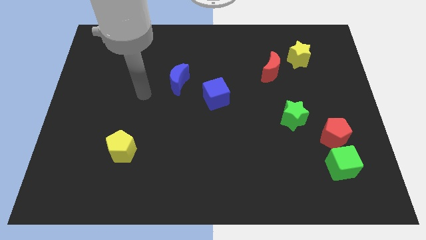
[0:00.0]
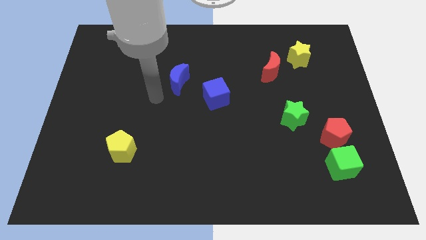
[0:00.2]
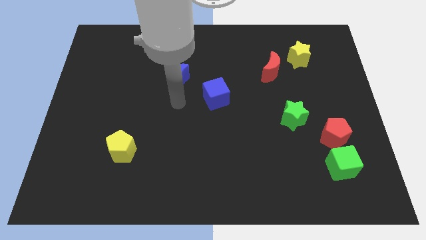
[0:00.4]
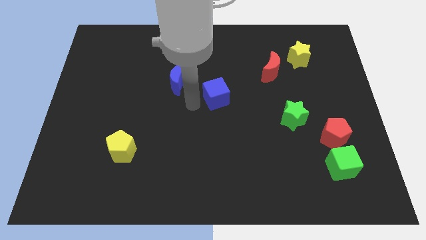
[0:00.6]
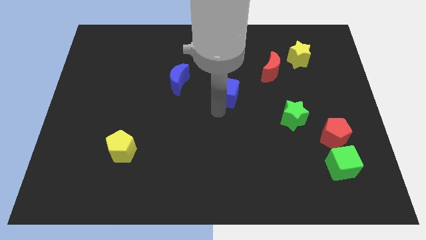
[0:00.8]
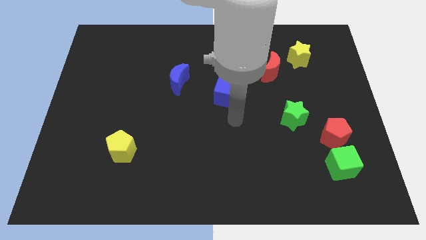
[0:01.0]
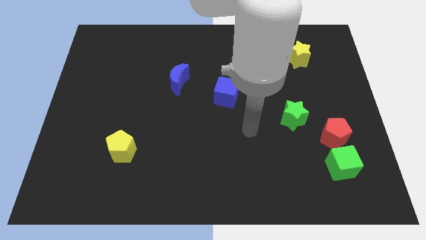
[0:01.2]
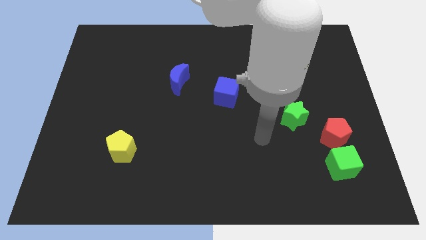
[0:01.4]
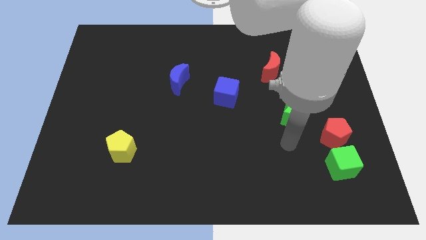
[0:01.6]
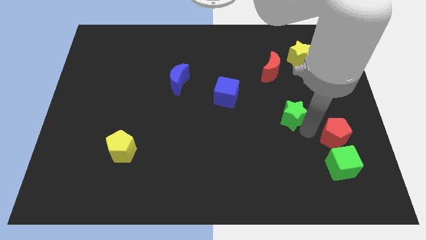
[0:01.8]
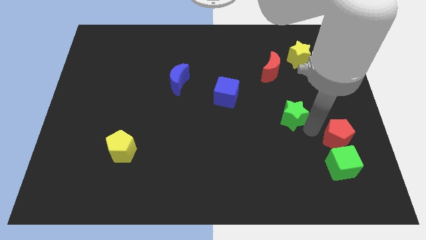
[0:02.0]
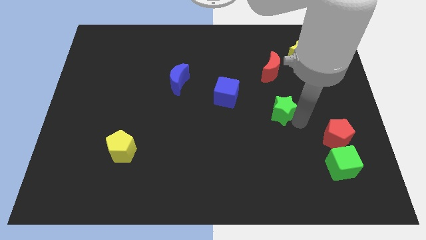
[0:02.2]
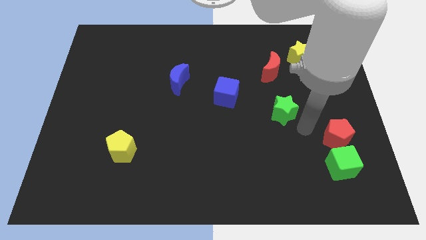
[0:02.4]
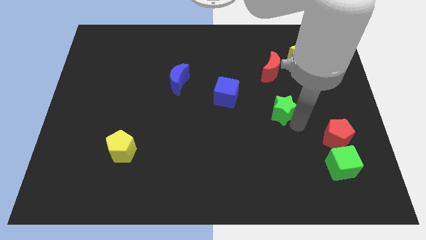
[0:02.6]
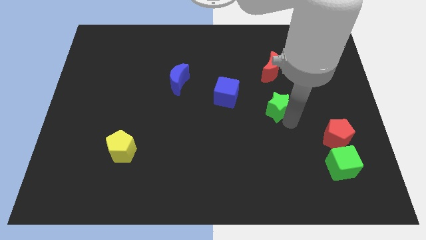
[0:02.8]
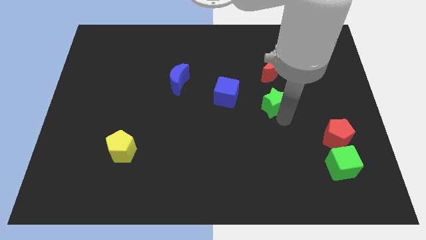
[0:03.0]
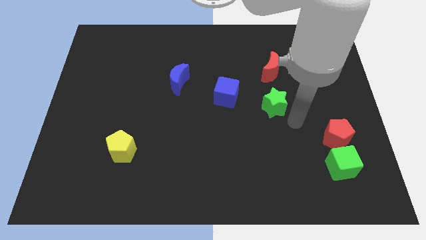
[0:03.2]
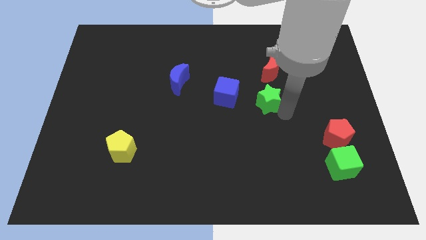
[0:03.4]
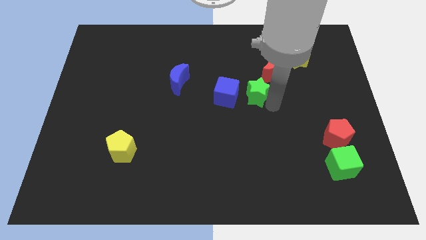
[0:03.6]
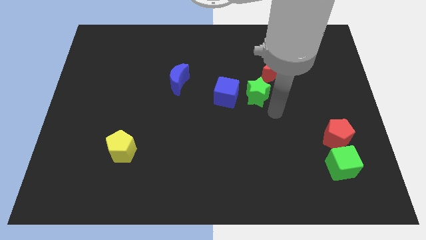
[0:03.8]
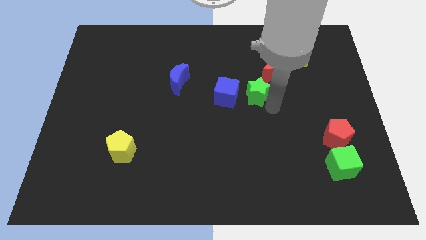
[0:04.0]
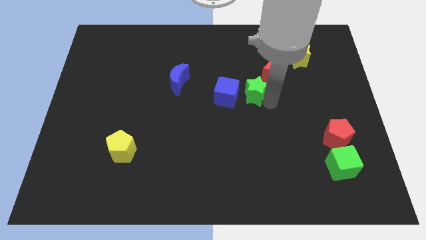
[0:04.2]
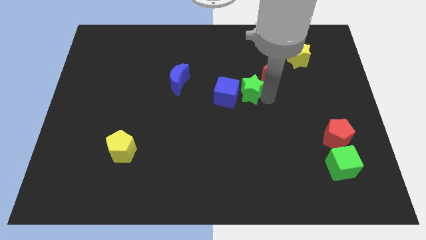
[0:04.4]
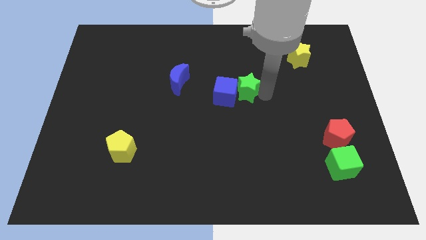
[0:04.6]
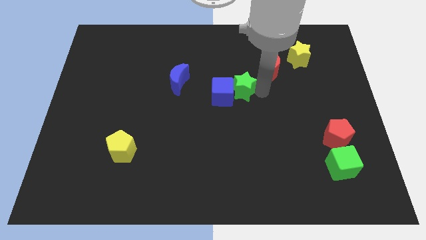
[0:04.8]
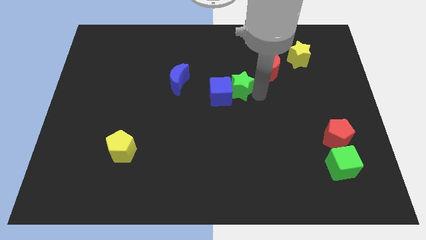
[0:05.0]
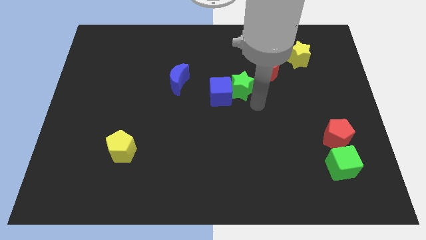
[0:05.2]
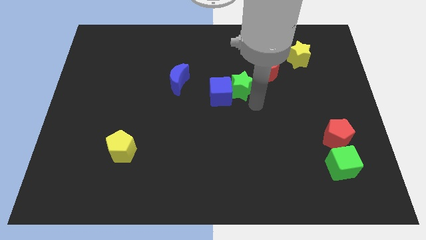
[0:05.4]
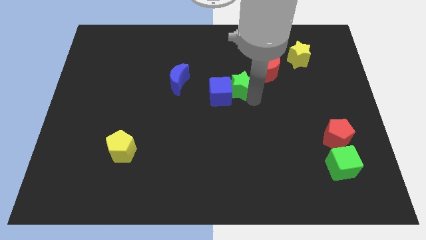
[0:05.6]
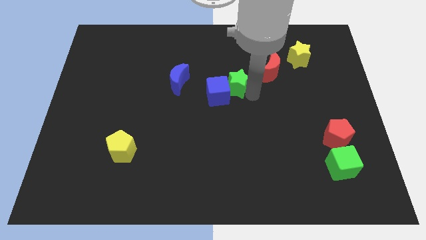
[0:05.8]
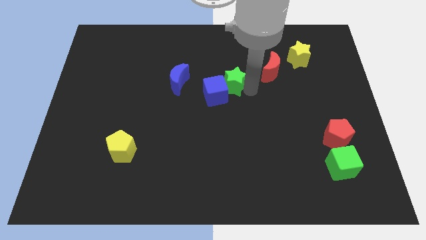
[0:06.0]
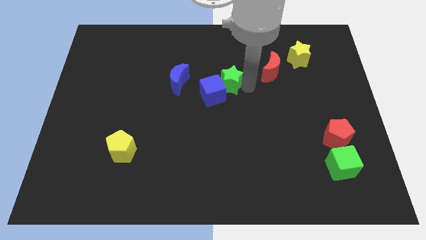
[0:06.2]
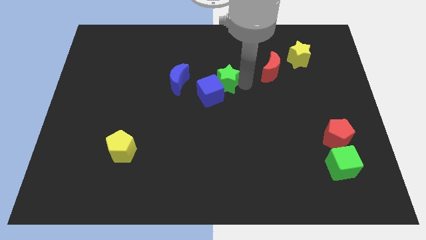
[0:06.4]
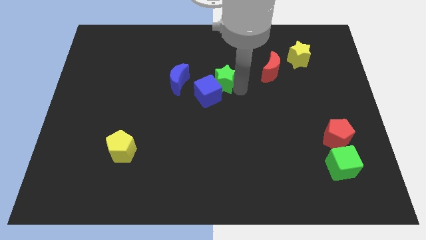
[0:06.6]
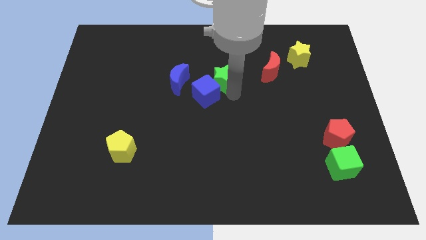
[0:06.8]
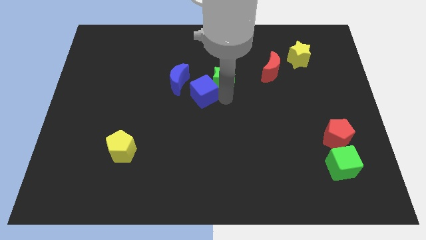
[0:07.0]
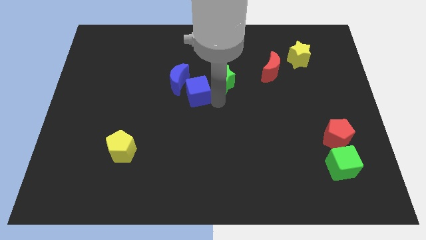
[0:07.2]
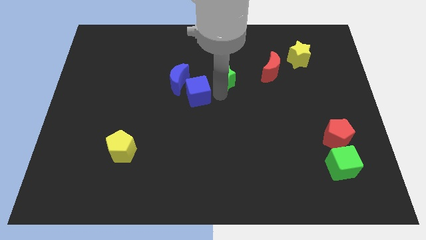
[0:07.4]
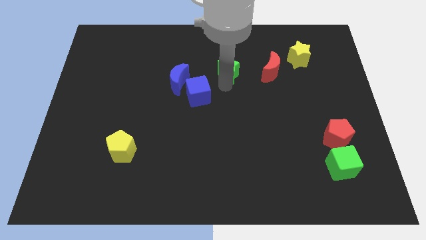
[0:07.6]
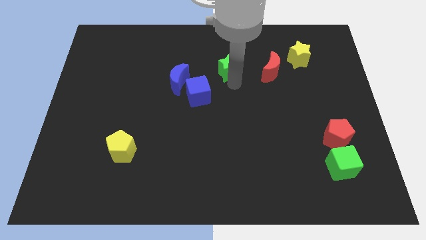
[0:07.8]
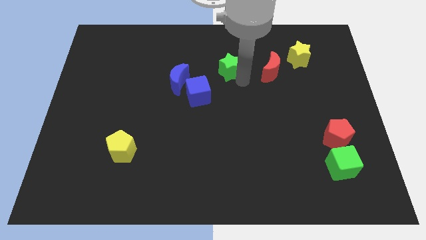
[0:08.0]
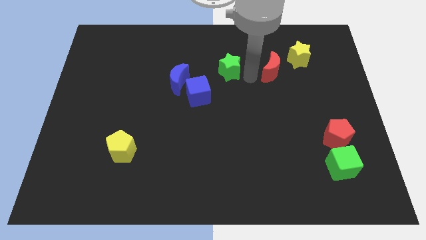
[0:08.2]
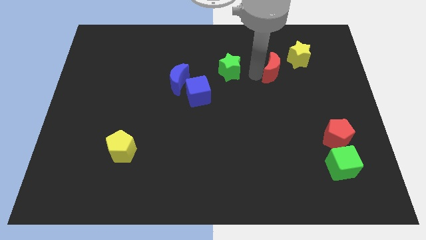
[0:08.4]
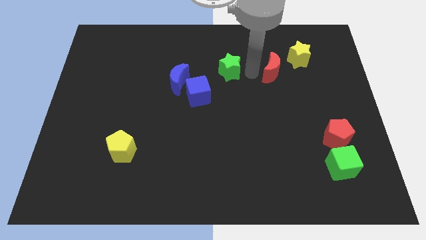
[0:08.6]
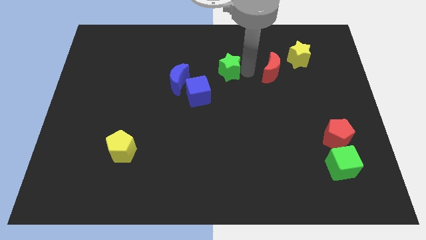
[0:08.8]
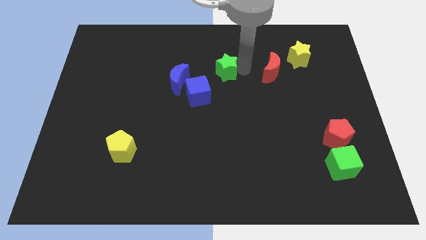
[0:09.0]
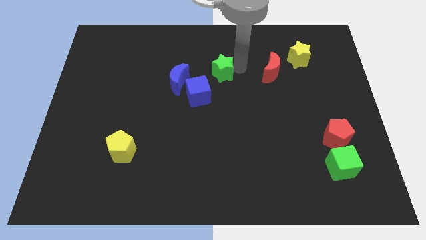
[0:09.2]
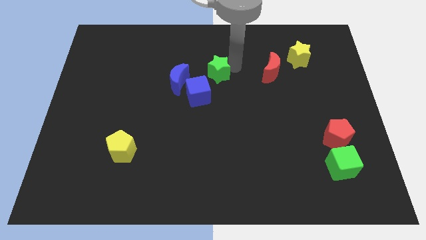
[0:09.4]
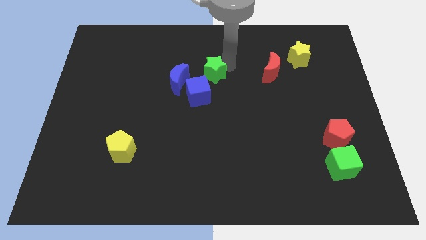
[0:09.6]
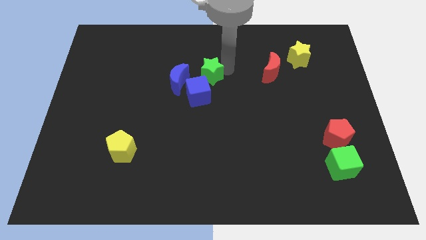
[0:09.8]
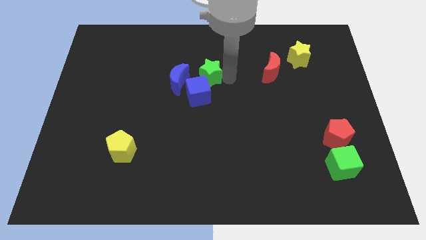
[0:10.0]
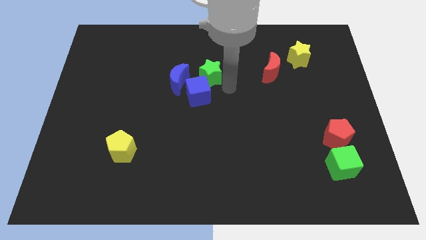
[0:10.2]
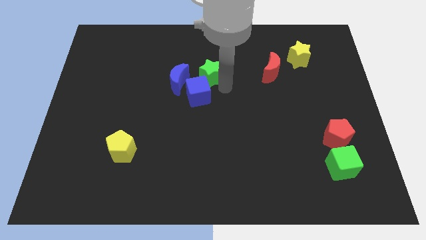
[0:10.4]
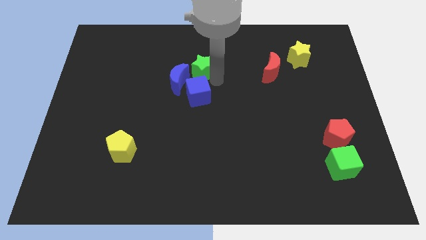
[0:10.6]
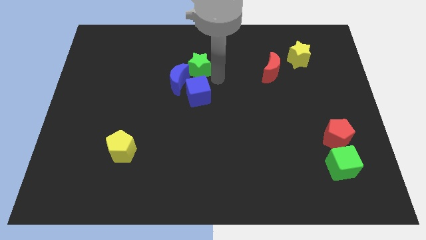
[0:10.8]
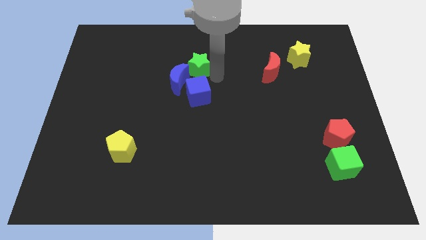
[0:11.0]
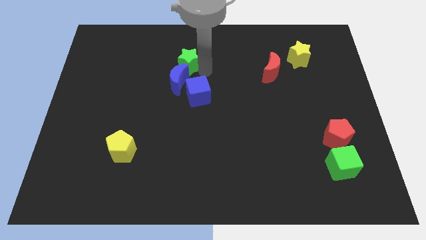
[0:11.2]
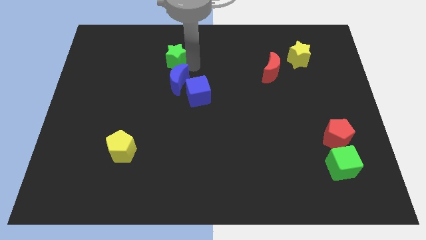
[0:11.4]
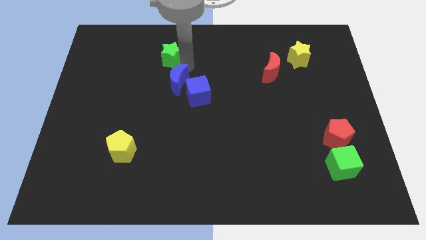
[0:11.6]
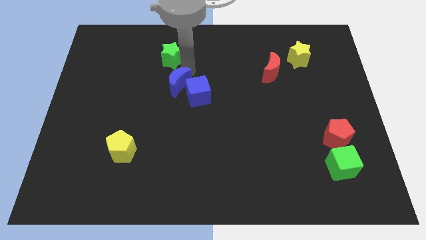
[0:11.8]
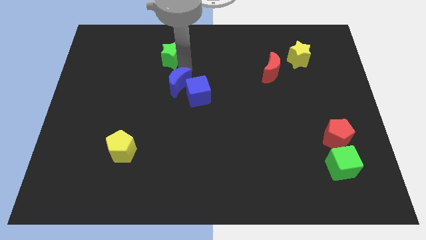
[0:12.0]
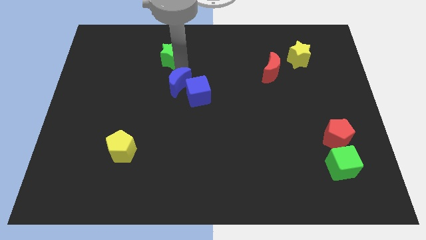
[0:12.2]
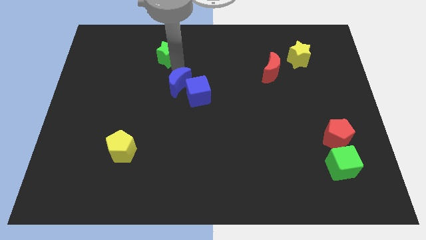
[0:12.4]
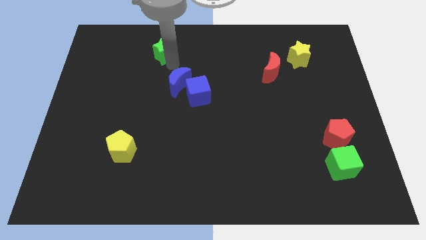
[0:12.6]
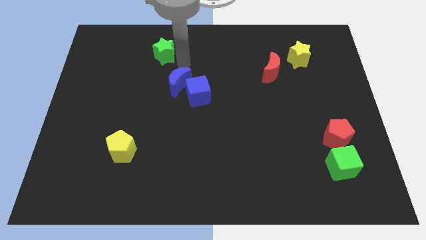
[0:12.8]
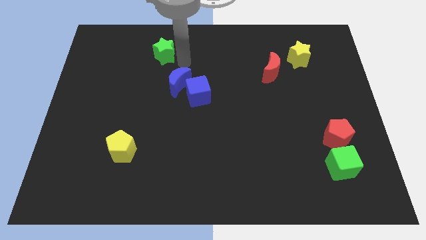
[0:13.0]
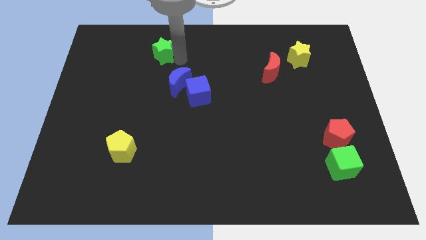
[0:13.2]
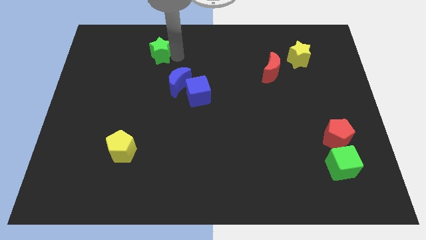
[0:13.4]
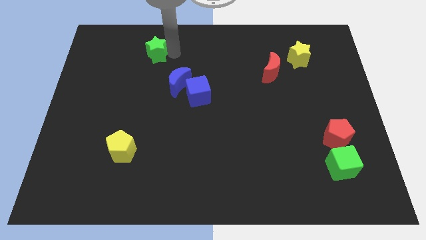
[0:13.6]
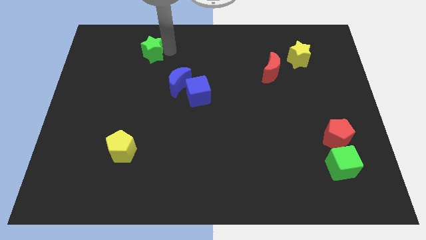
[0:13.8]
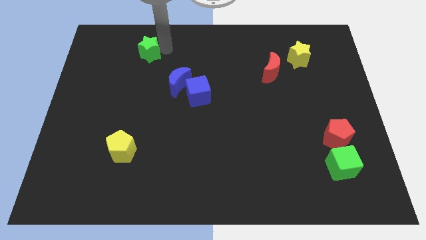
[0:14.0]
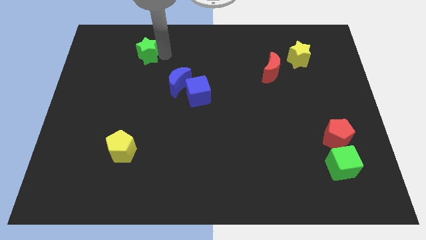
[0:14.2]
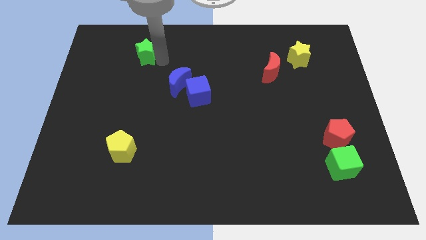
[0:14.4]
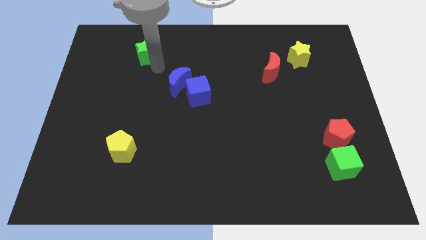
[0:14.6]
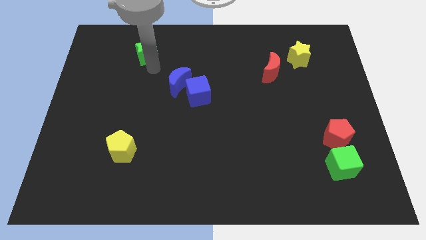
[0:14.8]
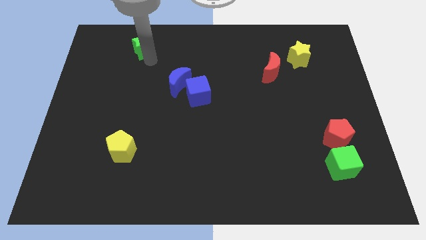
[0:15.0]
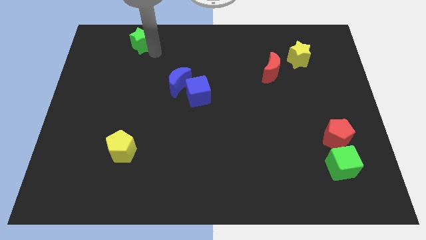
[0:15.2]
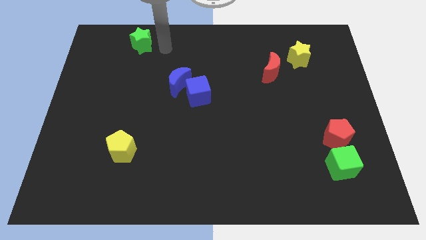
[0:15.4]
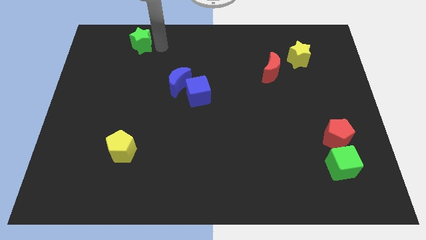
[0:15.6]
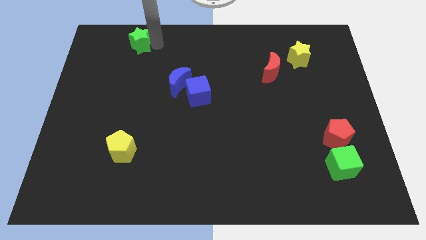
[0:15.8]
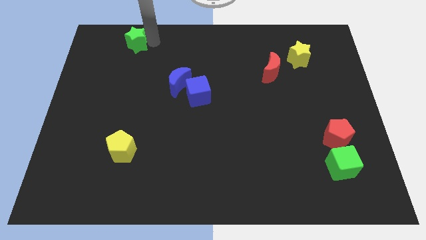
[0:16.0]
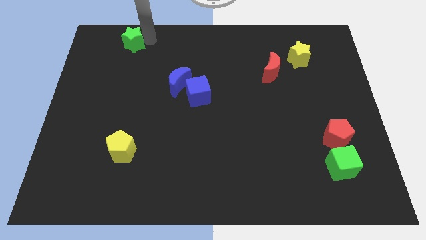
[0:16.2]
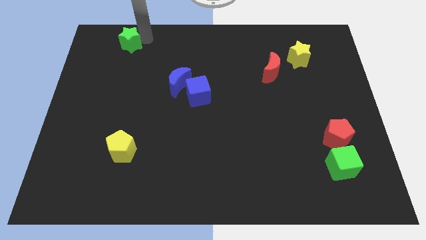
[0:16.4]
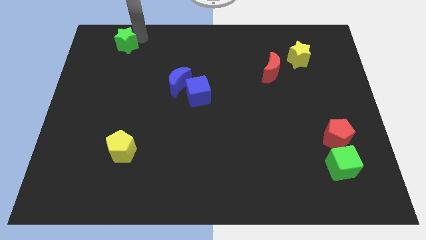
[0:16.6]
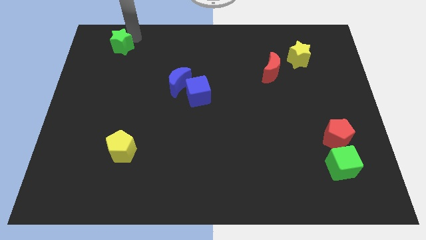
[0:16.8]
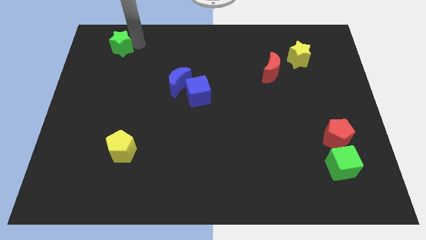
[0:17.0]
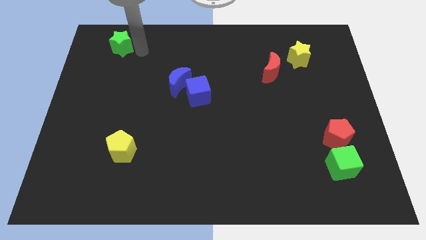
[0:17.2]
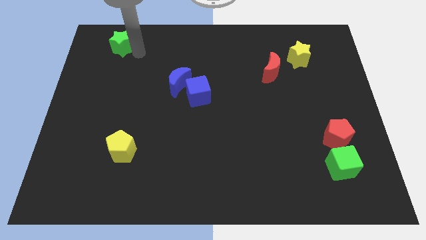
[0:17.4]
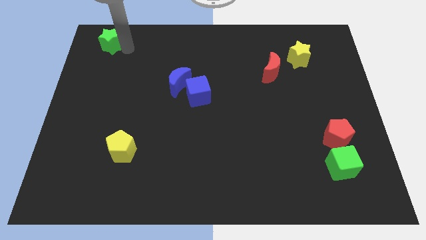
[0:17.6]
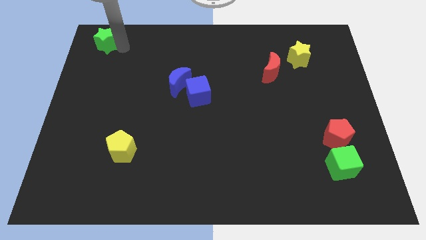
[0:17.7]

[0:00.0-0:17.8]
slide the green star to the top left
